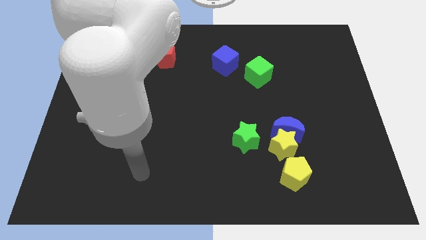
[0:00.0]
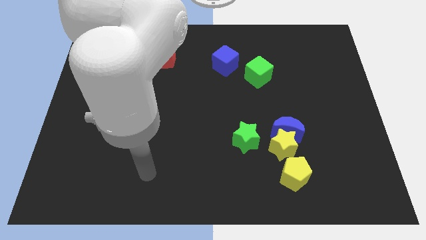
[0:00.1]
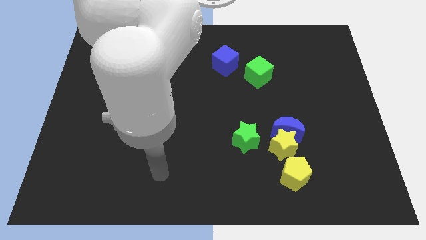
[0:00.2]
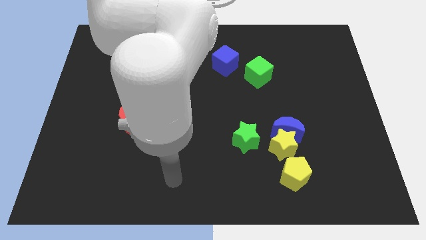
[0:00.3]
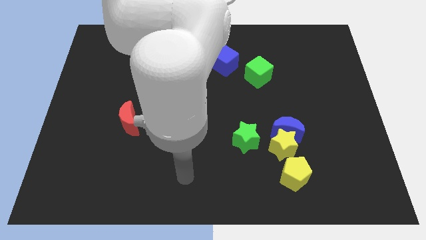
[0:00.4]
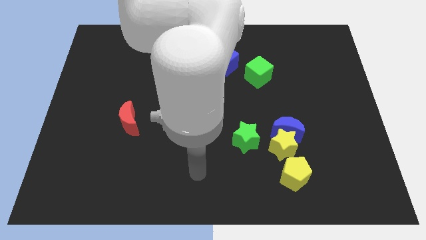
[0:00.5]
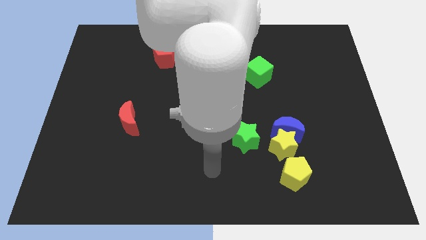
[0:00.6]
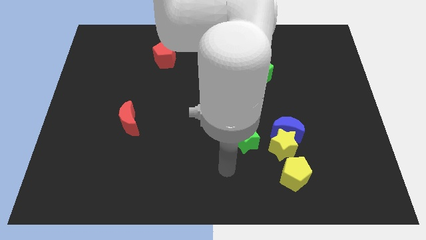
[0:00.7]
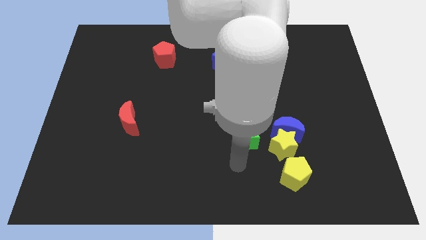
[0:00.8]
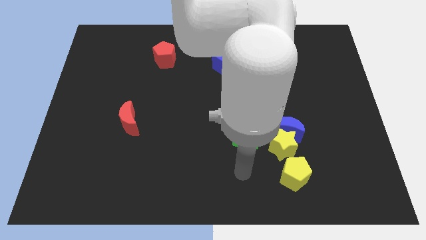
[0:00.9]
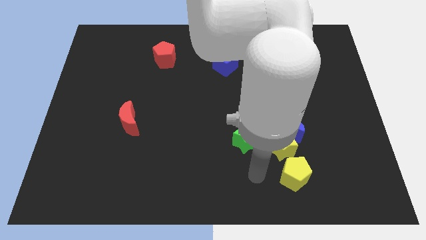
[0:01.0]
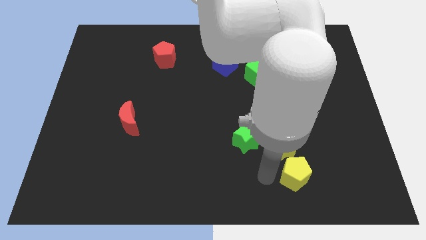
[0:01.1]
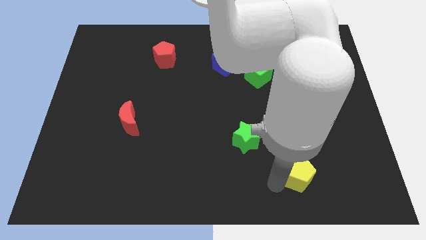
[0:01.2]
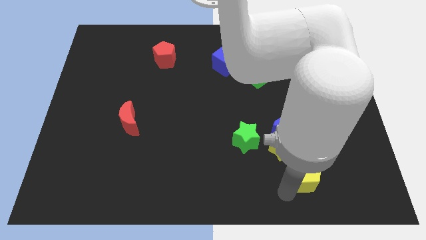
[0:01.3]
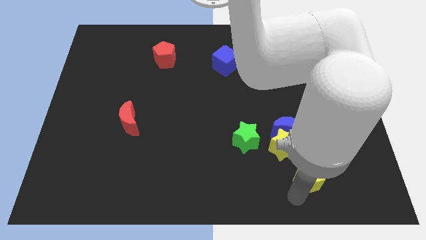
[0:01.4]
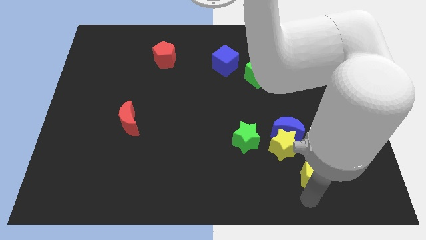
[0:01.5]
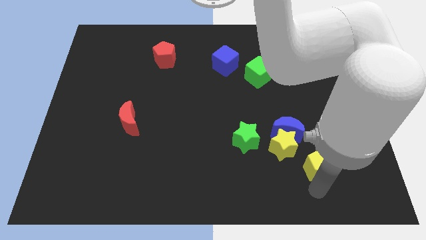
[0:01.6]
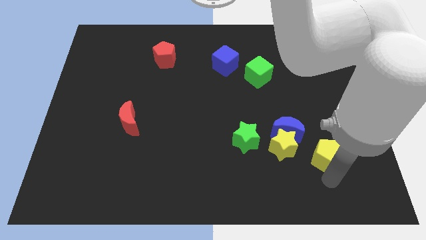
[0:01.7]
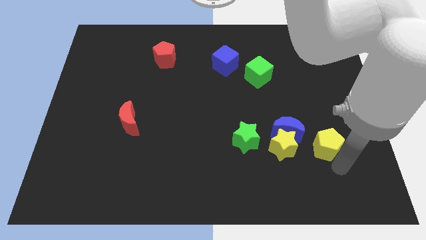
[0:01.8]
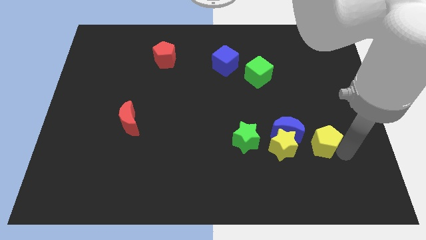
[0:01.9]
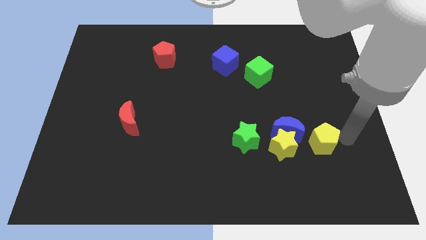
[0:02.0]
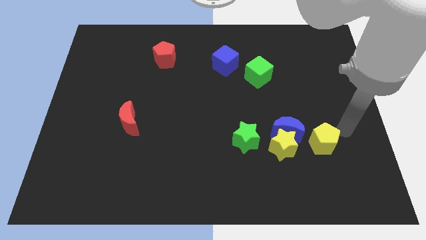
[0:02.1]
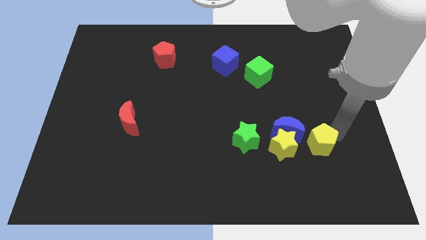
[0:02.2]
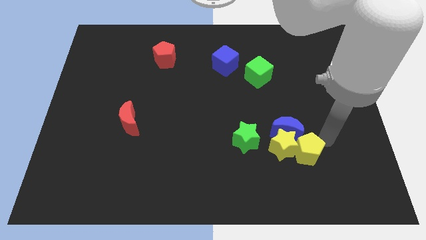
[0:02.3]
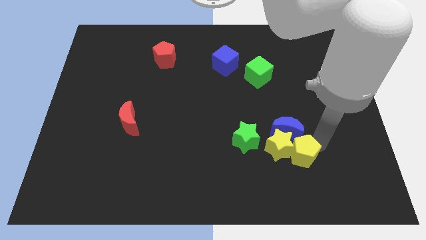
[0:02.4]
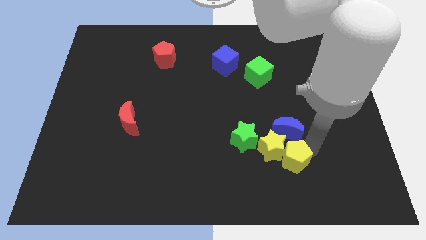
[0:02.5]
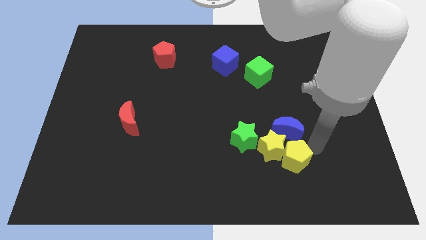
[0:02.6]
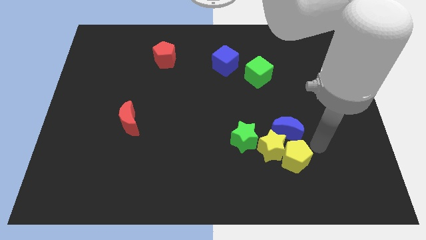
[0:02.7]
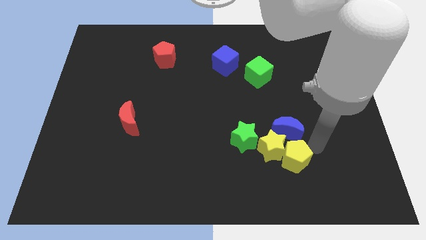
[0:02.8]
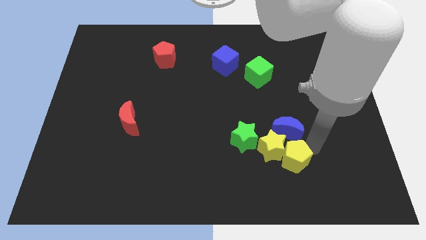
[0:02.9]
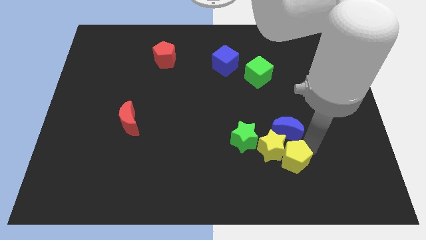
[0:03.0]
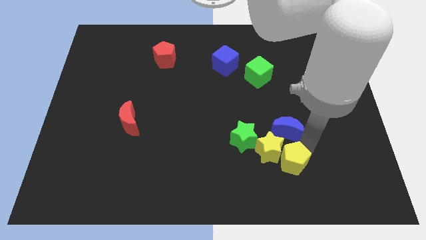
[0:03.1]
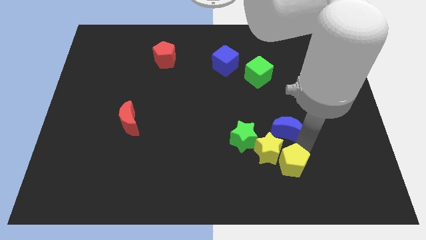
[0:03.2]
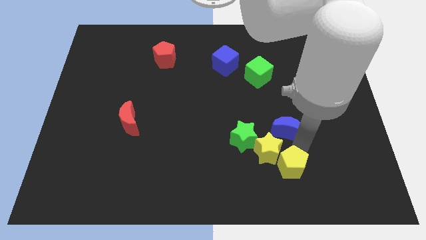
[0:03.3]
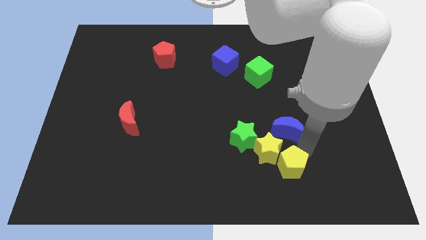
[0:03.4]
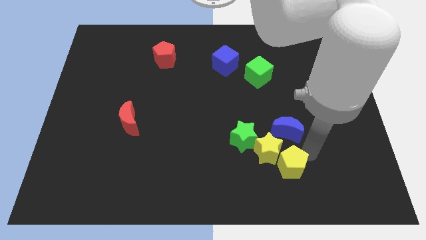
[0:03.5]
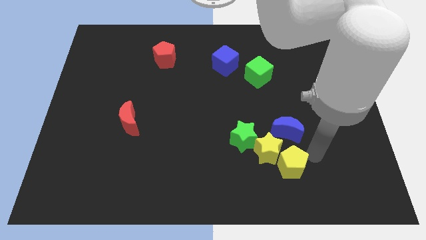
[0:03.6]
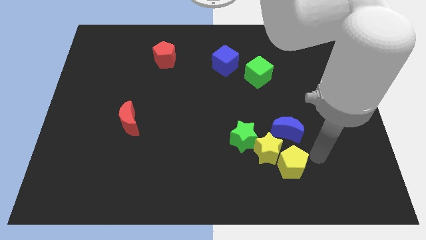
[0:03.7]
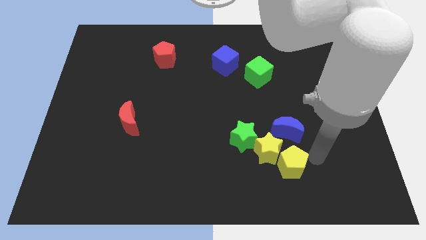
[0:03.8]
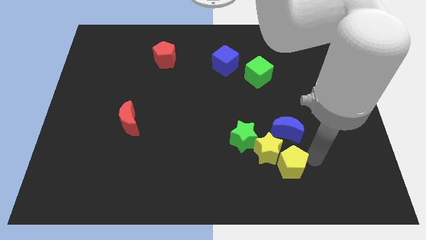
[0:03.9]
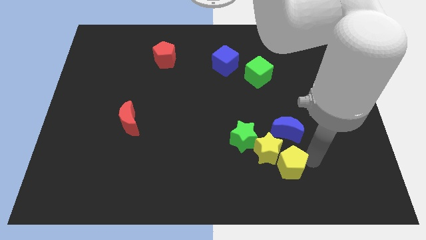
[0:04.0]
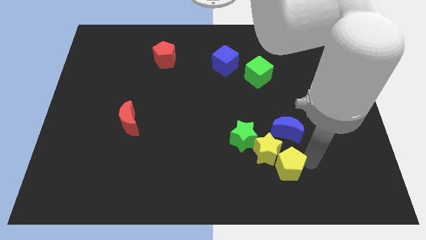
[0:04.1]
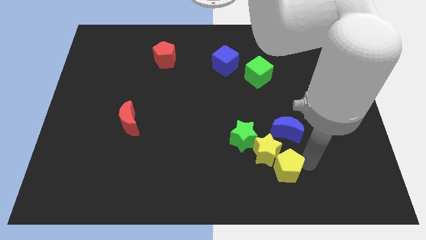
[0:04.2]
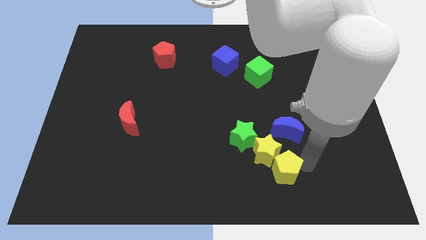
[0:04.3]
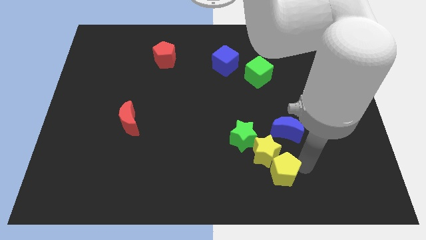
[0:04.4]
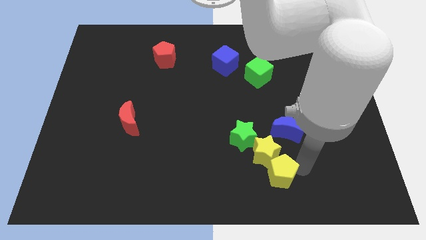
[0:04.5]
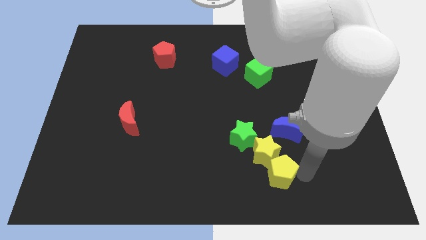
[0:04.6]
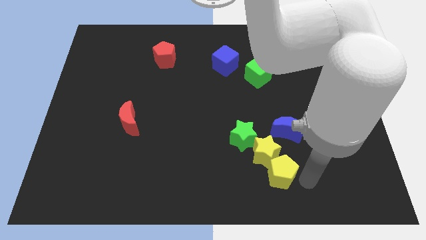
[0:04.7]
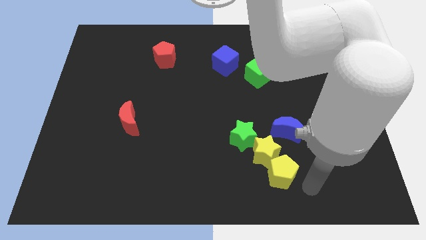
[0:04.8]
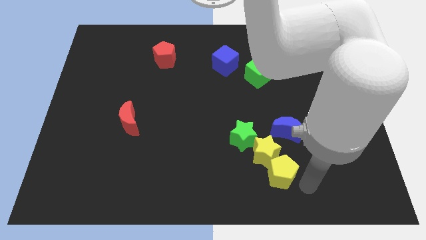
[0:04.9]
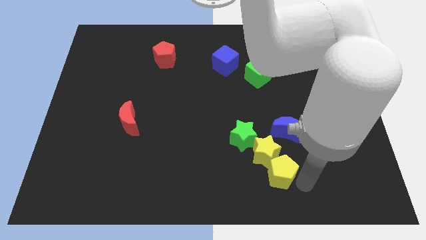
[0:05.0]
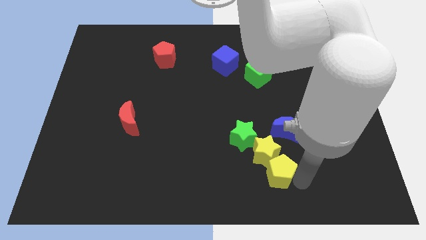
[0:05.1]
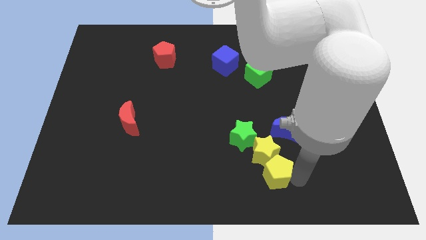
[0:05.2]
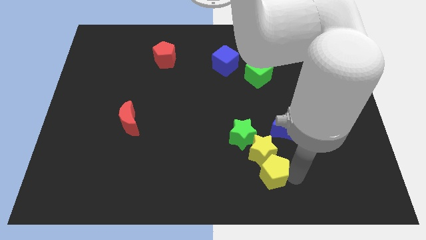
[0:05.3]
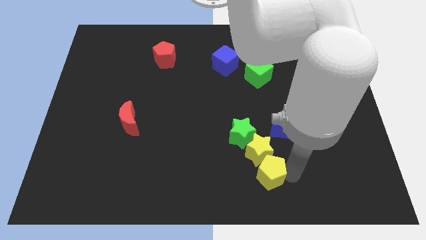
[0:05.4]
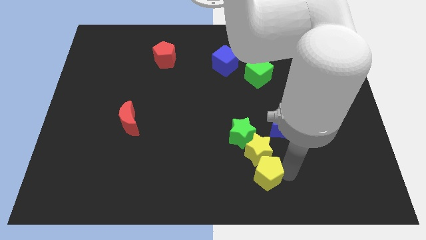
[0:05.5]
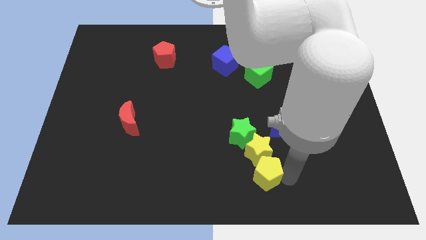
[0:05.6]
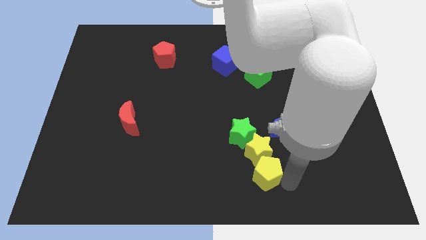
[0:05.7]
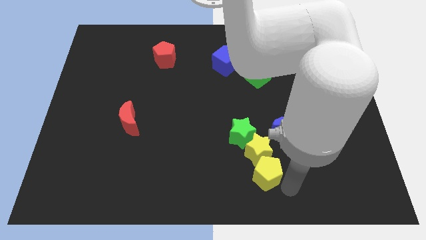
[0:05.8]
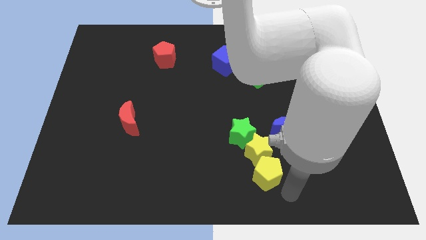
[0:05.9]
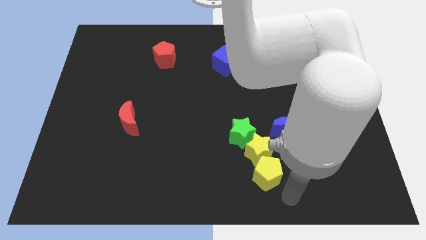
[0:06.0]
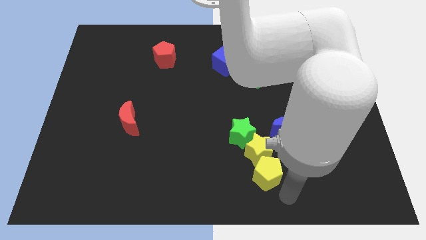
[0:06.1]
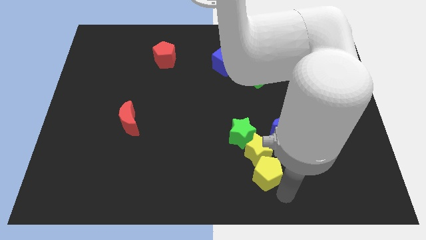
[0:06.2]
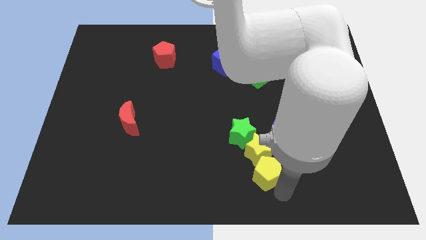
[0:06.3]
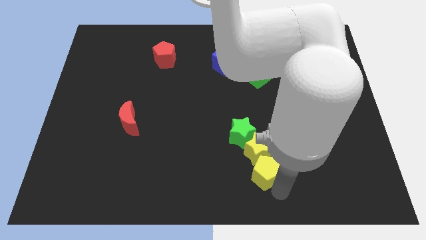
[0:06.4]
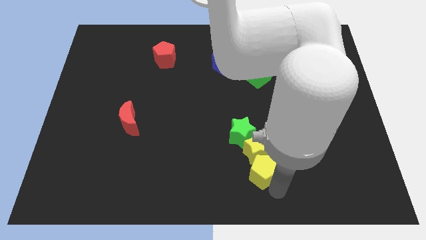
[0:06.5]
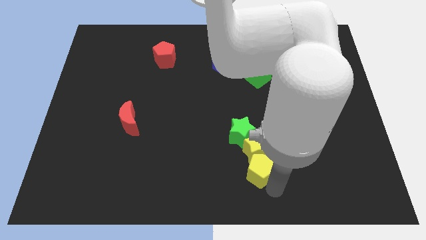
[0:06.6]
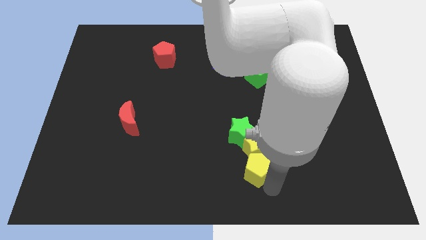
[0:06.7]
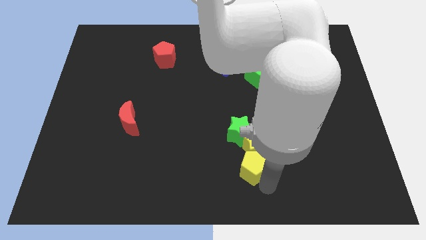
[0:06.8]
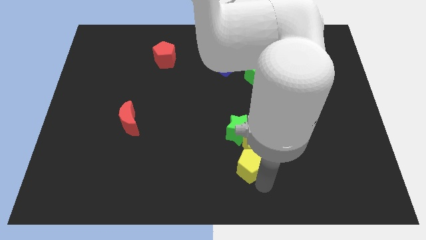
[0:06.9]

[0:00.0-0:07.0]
push the yellow pentagon up and left diagonally somewhat

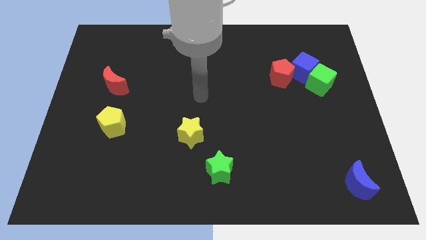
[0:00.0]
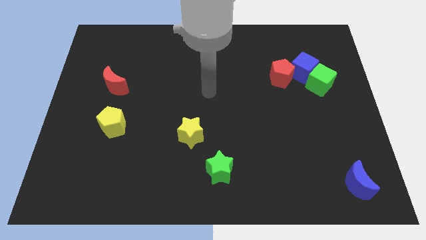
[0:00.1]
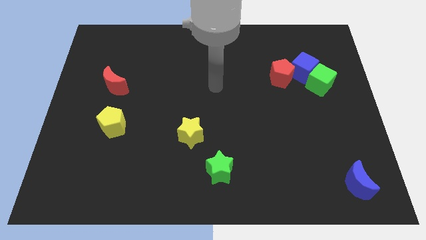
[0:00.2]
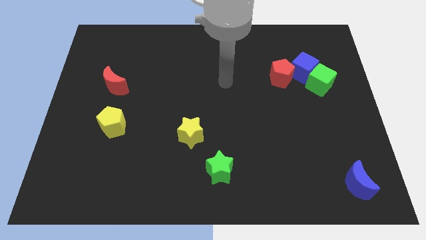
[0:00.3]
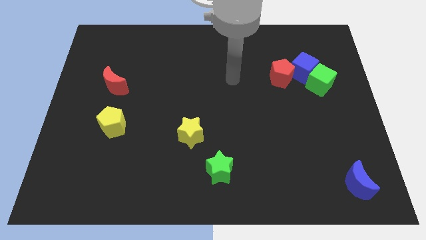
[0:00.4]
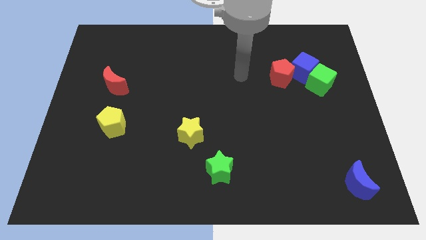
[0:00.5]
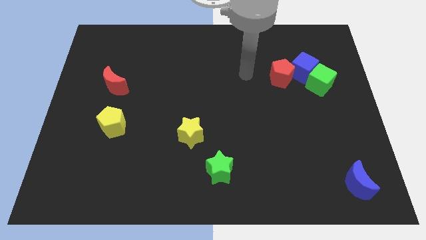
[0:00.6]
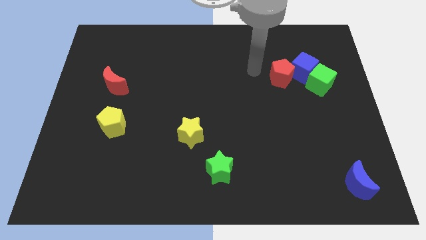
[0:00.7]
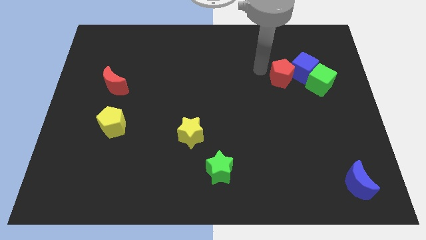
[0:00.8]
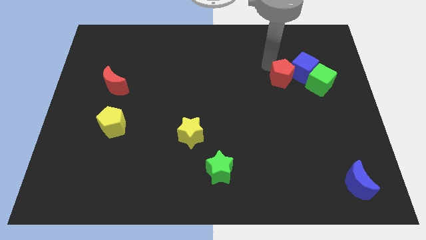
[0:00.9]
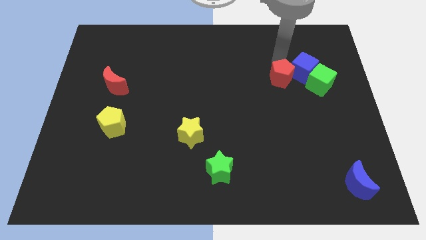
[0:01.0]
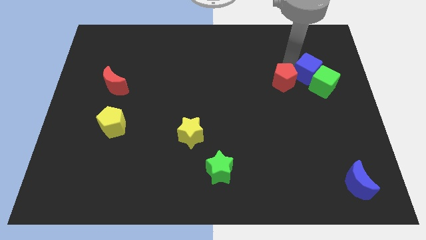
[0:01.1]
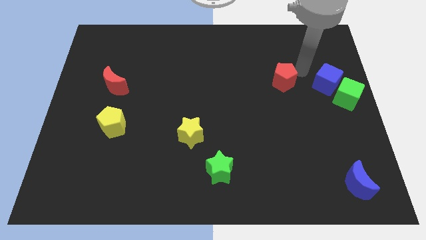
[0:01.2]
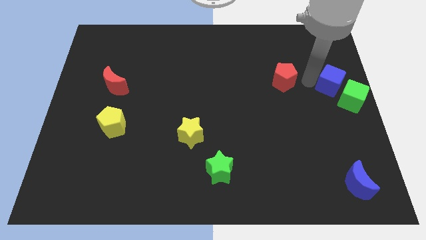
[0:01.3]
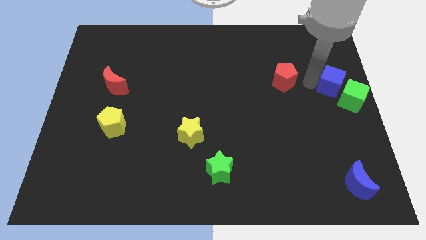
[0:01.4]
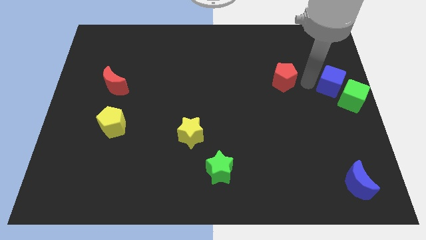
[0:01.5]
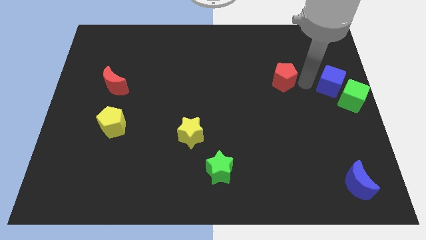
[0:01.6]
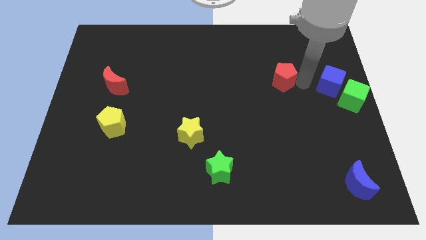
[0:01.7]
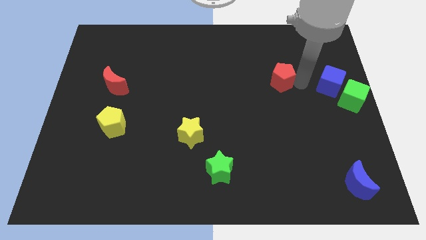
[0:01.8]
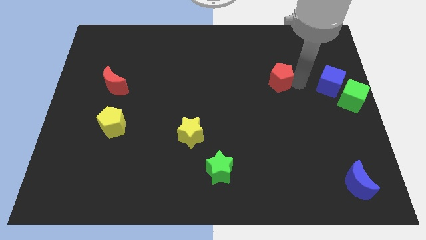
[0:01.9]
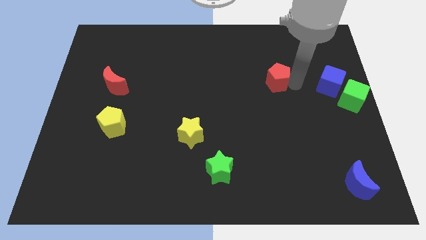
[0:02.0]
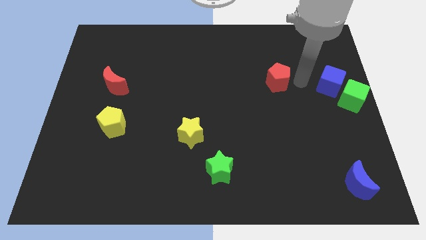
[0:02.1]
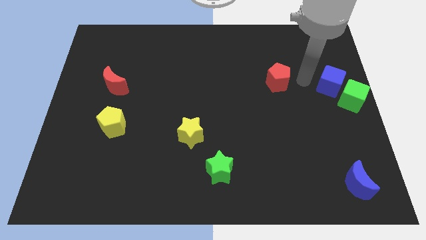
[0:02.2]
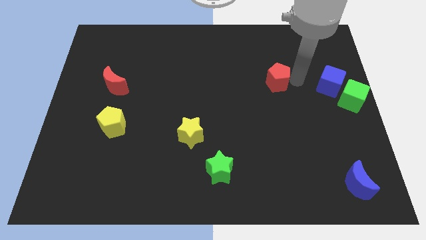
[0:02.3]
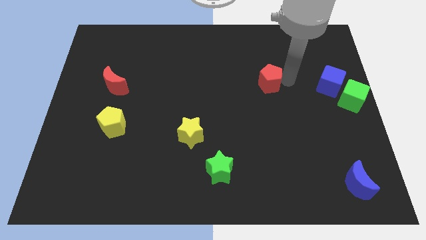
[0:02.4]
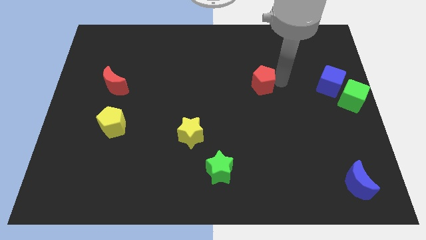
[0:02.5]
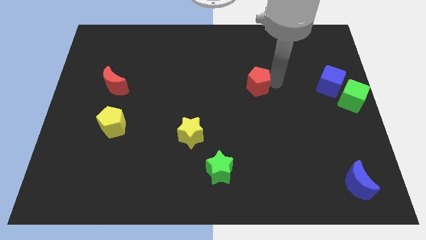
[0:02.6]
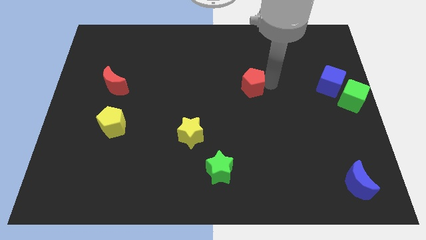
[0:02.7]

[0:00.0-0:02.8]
slightly slide the red pentagon to the left
